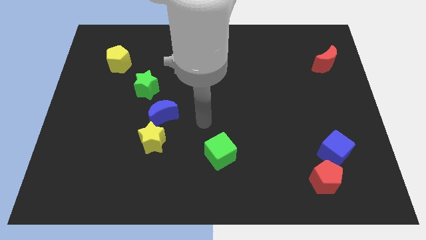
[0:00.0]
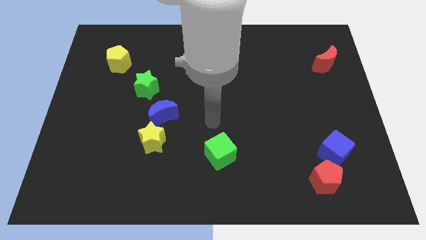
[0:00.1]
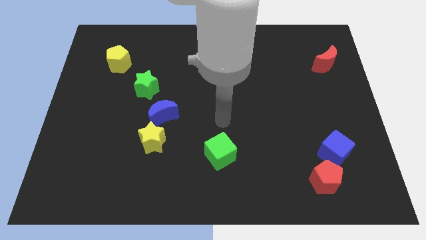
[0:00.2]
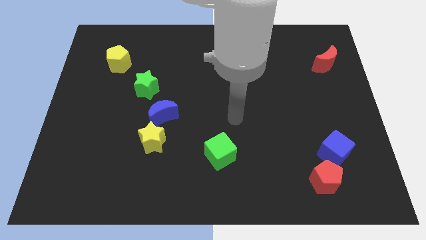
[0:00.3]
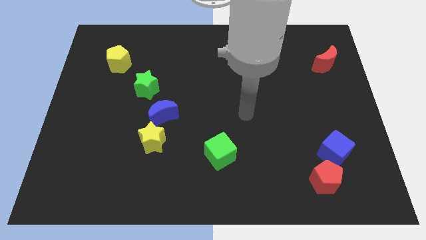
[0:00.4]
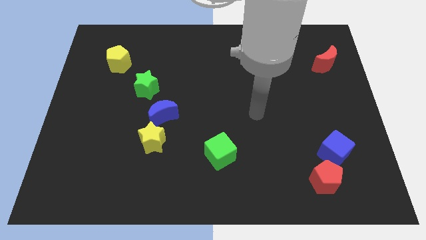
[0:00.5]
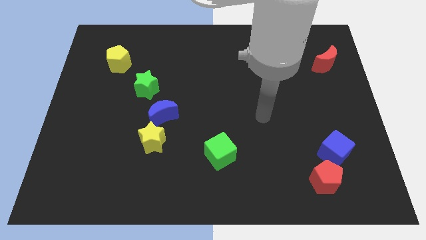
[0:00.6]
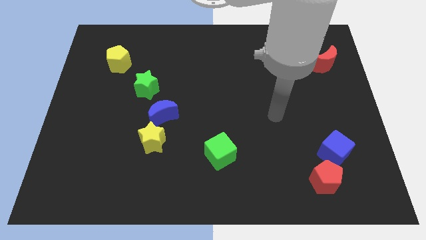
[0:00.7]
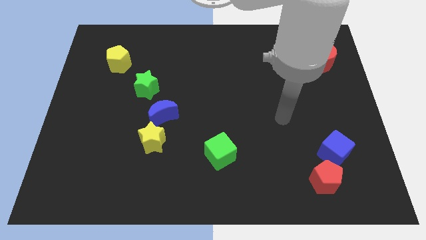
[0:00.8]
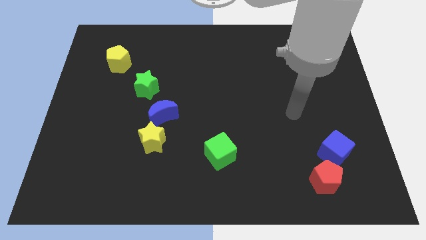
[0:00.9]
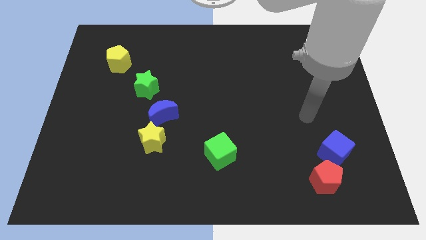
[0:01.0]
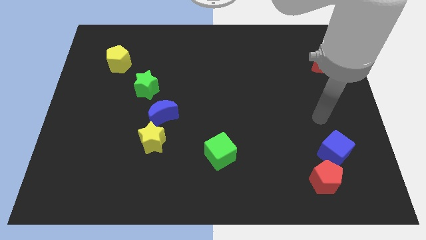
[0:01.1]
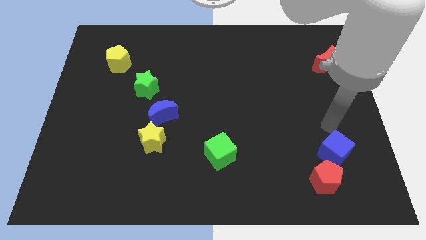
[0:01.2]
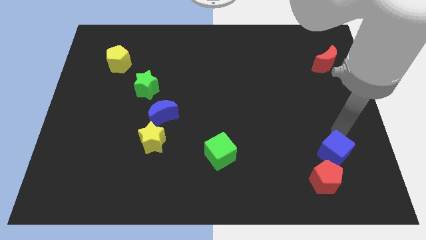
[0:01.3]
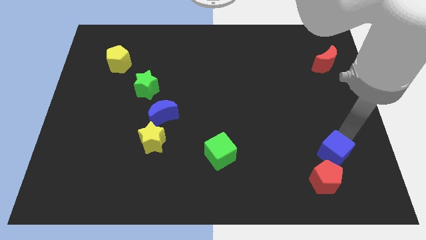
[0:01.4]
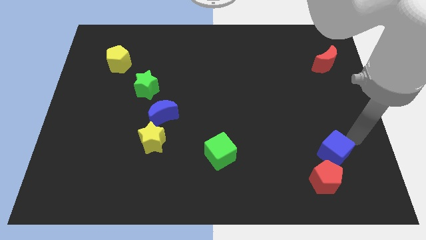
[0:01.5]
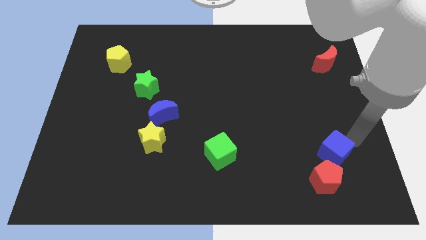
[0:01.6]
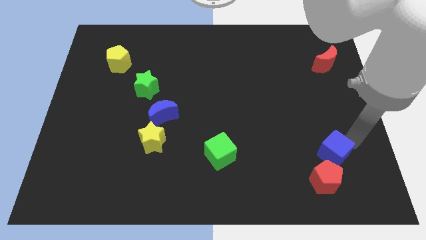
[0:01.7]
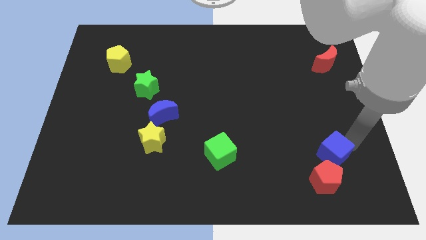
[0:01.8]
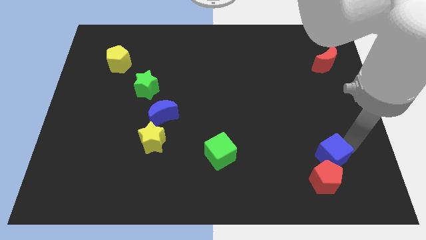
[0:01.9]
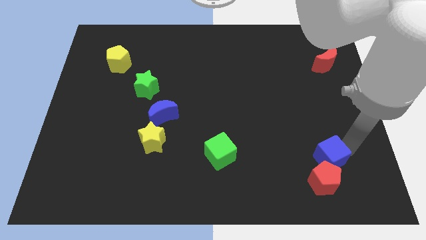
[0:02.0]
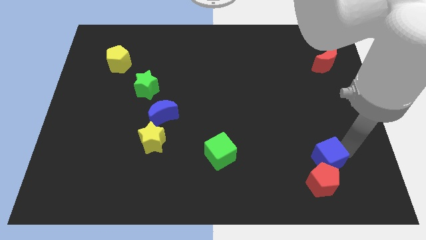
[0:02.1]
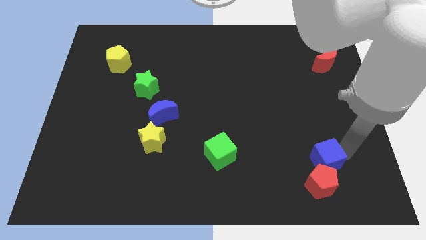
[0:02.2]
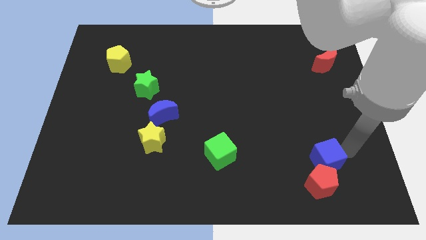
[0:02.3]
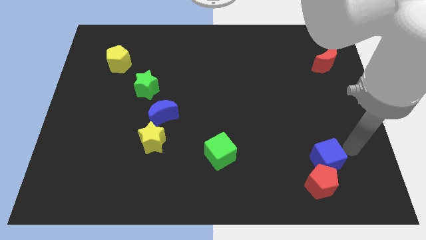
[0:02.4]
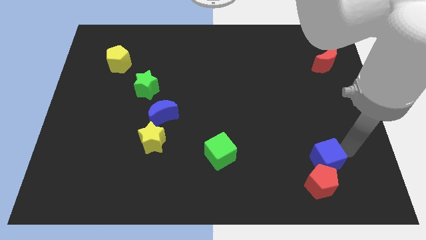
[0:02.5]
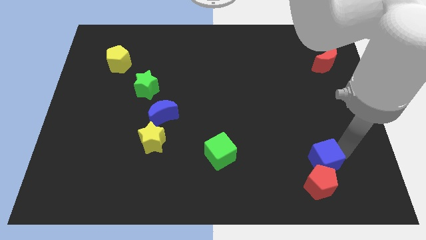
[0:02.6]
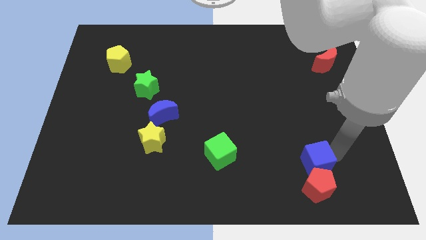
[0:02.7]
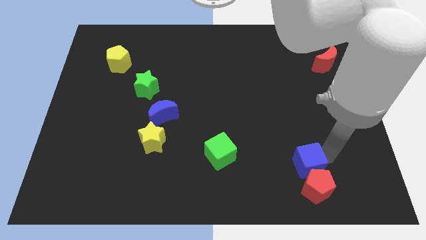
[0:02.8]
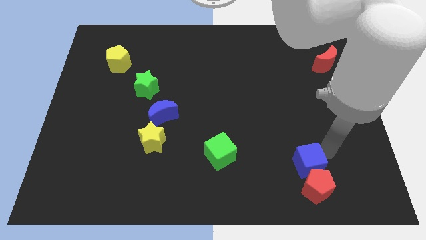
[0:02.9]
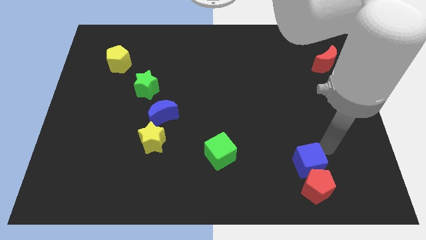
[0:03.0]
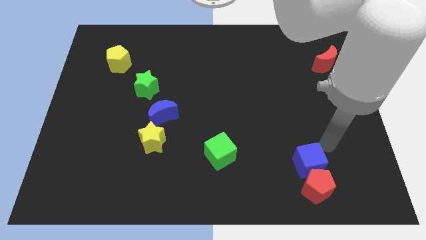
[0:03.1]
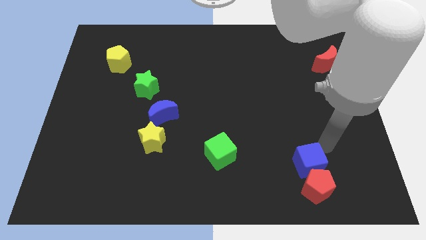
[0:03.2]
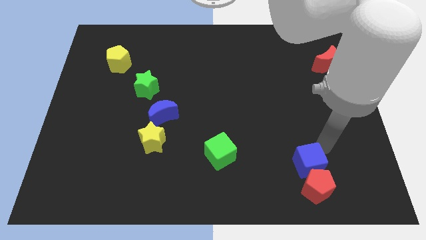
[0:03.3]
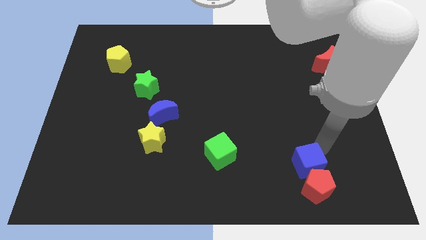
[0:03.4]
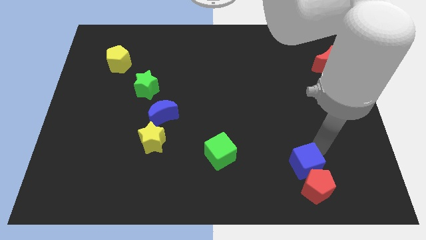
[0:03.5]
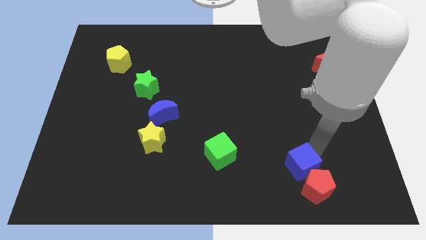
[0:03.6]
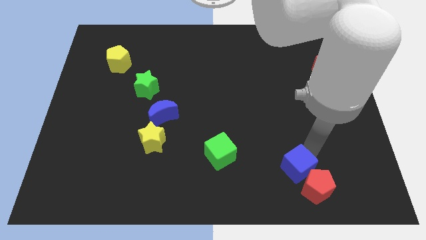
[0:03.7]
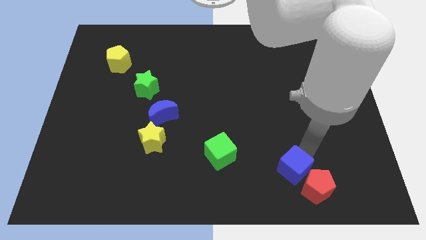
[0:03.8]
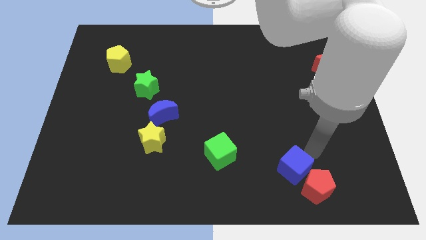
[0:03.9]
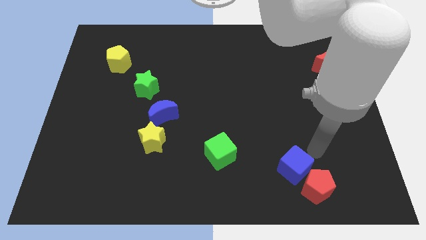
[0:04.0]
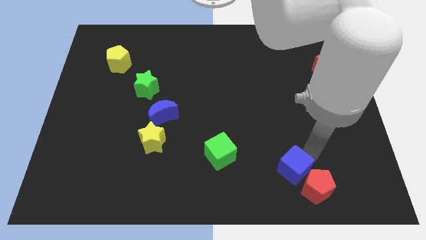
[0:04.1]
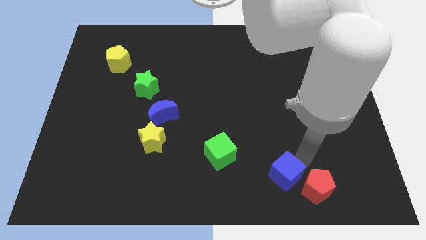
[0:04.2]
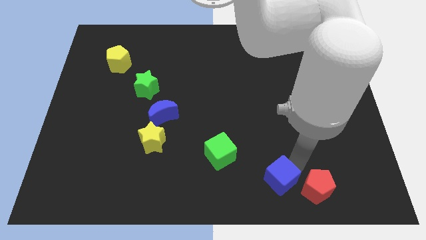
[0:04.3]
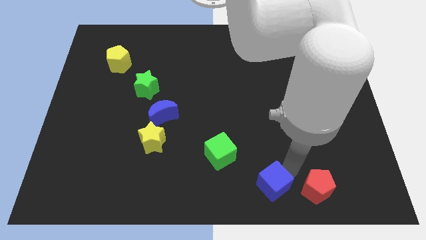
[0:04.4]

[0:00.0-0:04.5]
push the blue cube to the bottom side

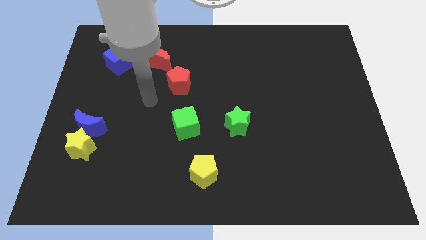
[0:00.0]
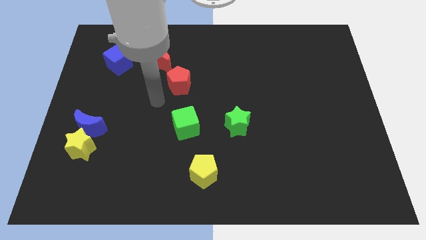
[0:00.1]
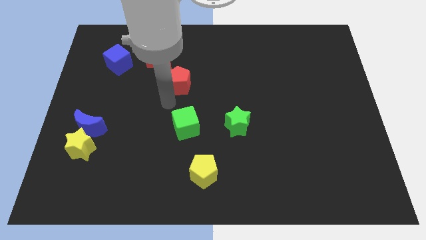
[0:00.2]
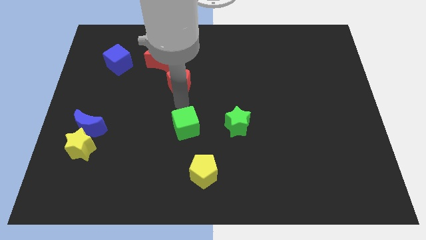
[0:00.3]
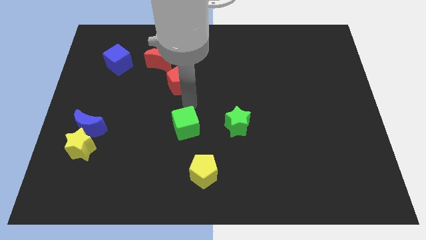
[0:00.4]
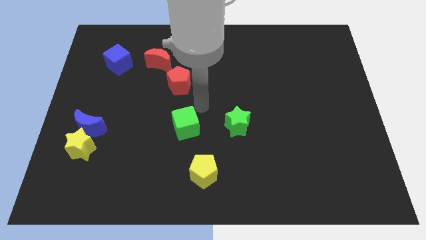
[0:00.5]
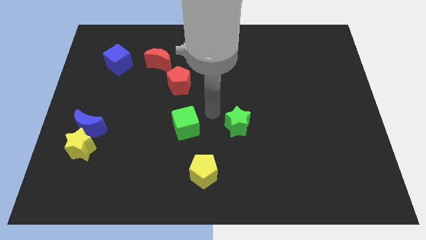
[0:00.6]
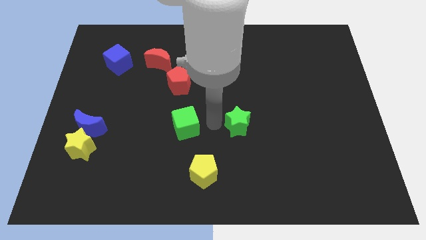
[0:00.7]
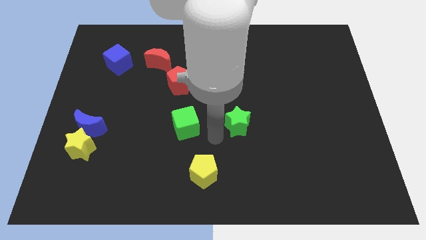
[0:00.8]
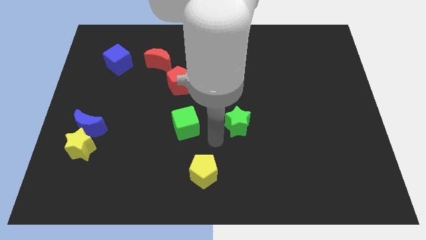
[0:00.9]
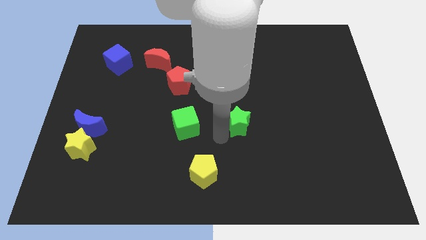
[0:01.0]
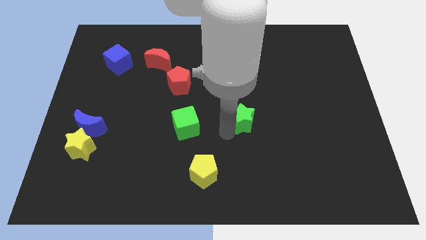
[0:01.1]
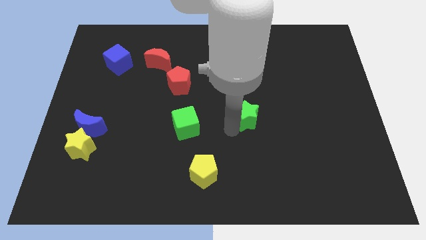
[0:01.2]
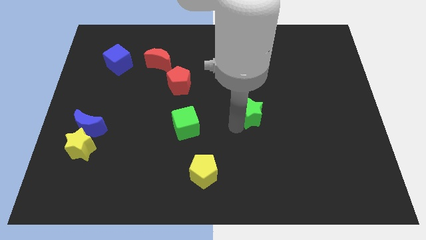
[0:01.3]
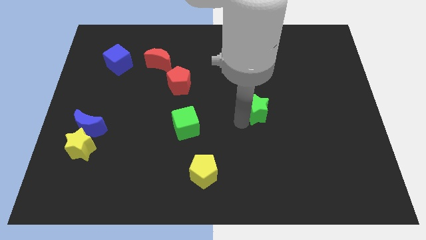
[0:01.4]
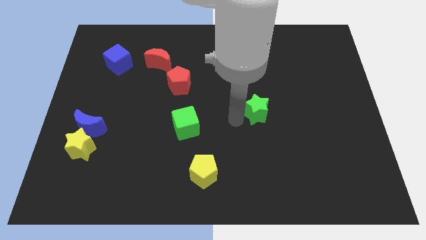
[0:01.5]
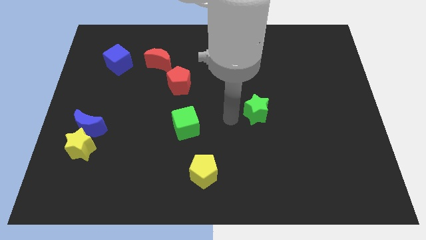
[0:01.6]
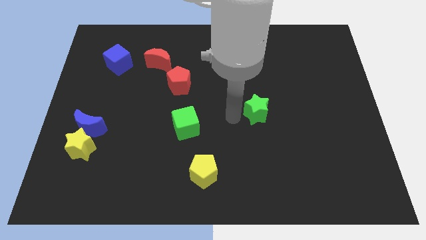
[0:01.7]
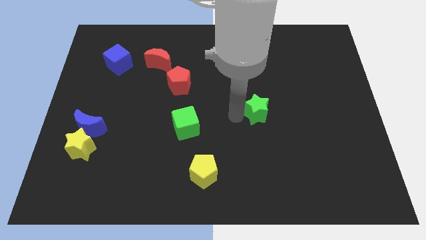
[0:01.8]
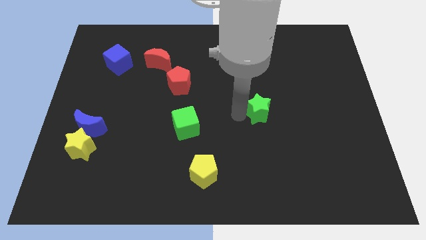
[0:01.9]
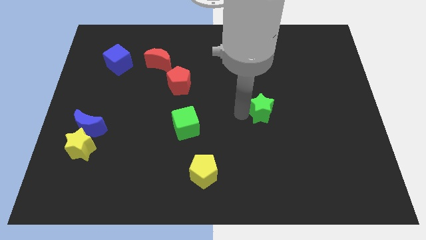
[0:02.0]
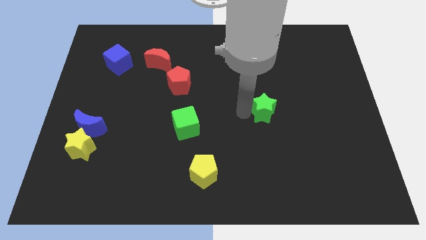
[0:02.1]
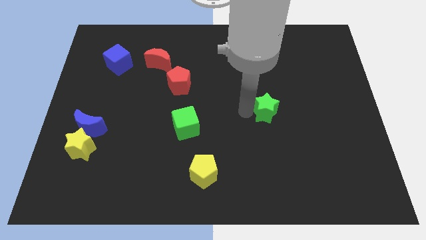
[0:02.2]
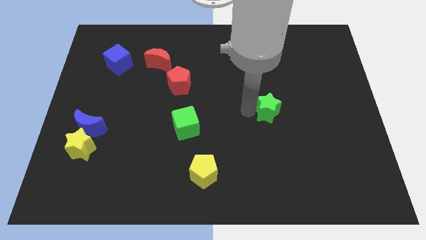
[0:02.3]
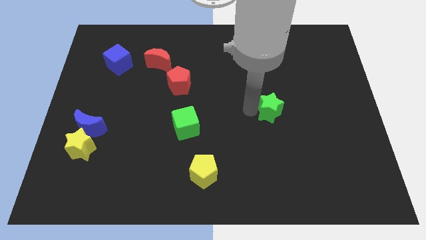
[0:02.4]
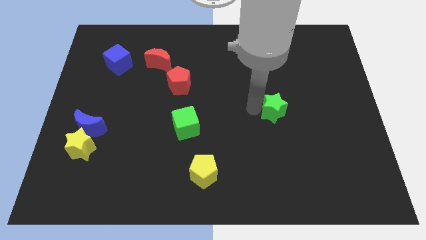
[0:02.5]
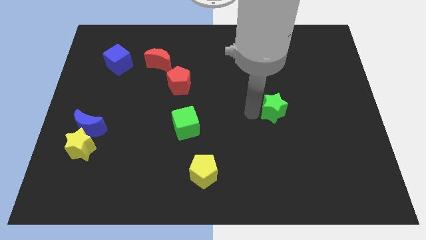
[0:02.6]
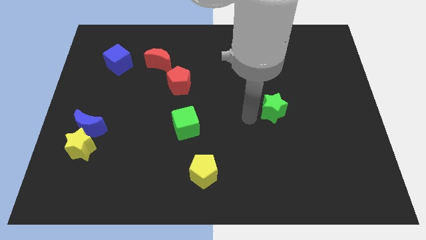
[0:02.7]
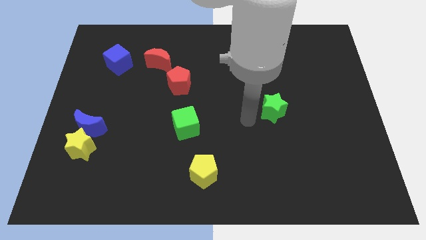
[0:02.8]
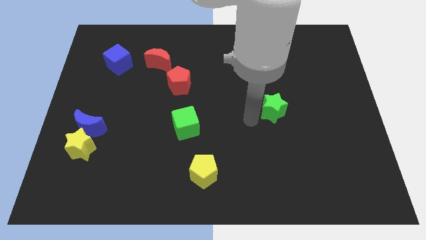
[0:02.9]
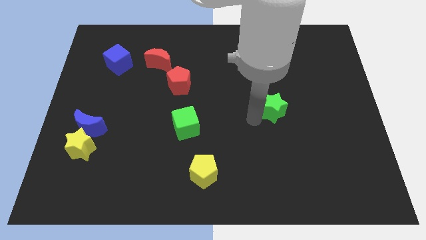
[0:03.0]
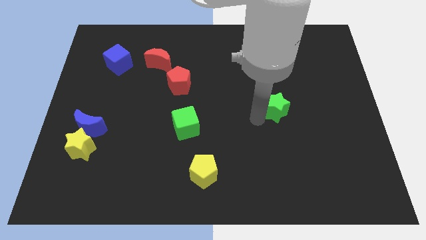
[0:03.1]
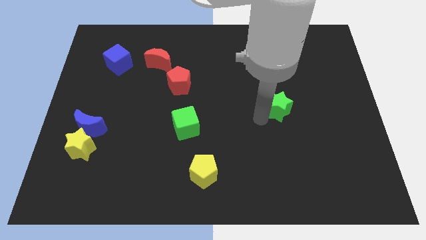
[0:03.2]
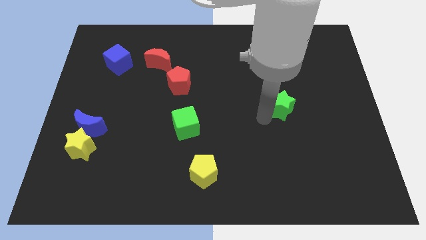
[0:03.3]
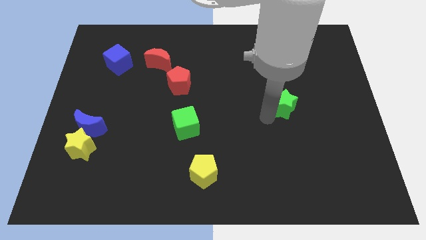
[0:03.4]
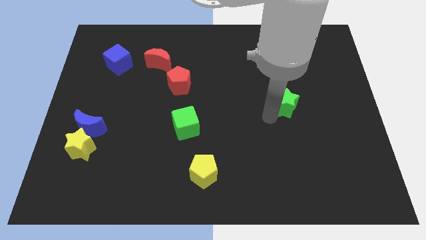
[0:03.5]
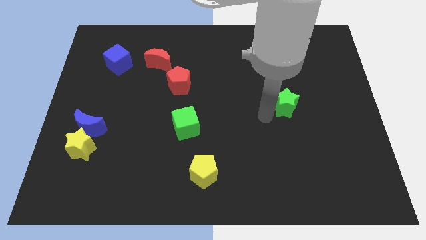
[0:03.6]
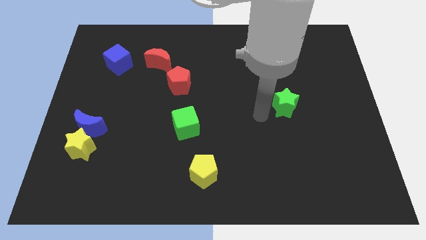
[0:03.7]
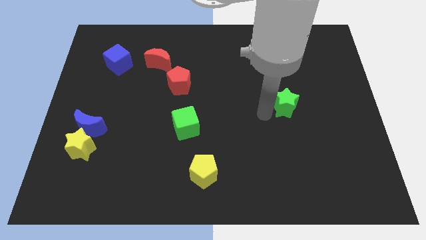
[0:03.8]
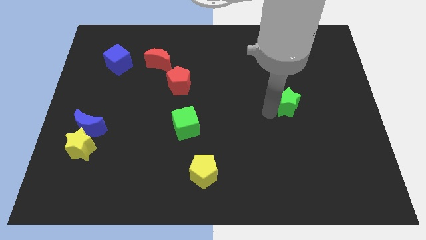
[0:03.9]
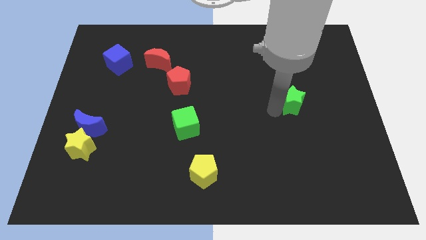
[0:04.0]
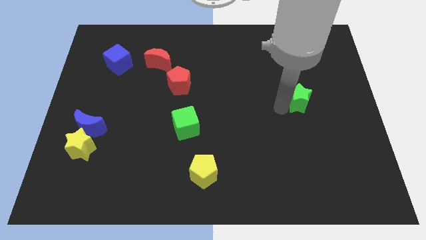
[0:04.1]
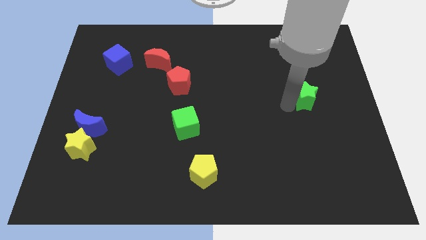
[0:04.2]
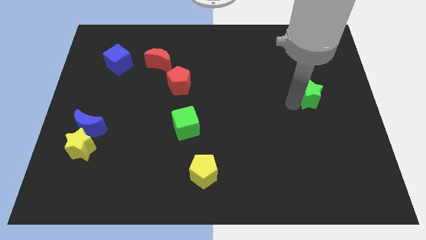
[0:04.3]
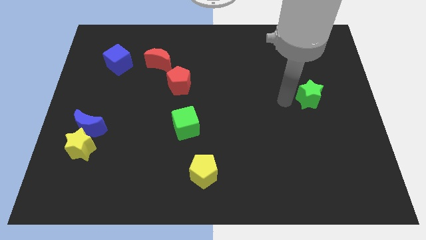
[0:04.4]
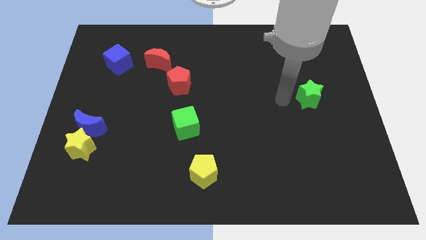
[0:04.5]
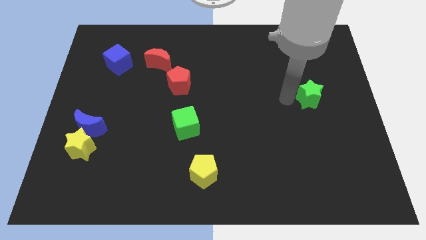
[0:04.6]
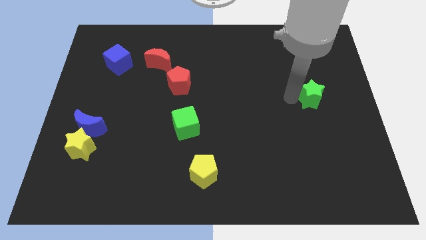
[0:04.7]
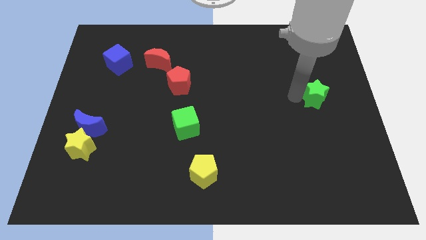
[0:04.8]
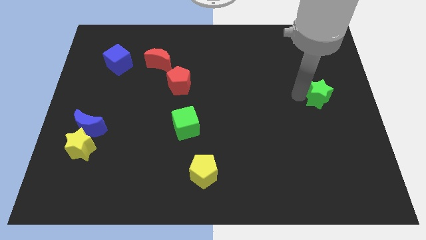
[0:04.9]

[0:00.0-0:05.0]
push the green star to the right side of the board
